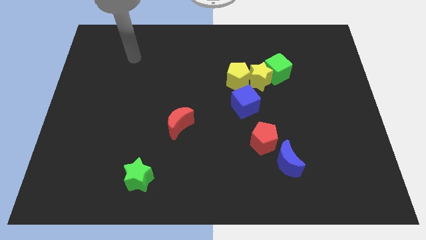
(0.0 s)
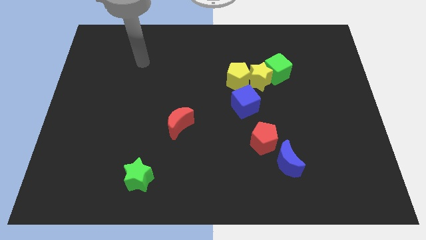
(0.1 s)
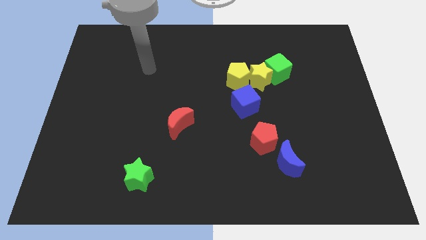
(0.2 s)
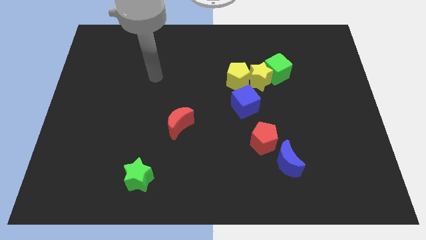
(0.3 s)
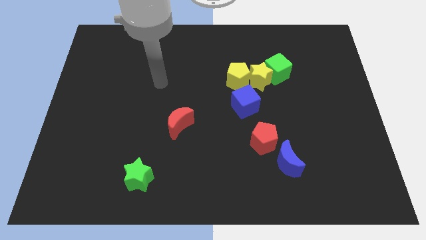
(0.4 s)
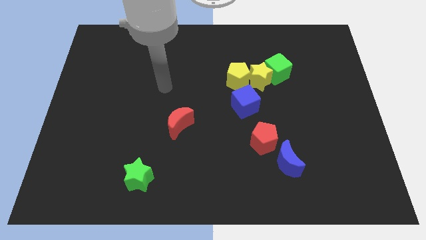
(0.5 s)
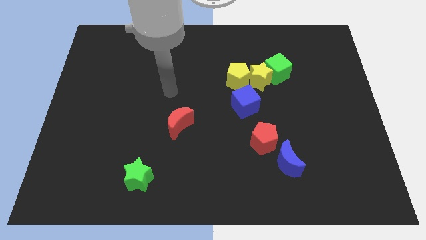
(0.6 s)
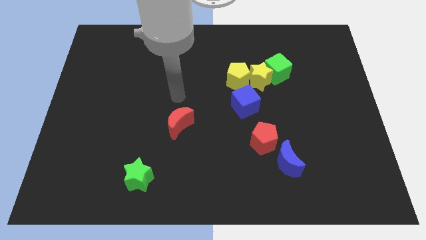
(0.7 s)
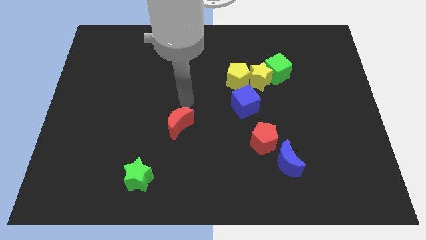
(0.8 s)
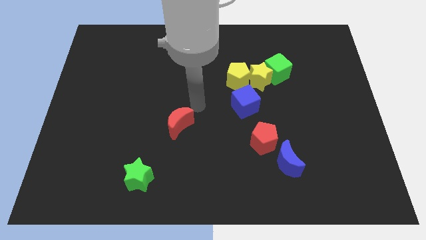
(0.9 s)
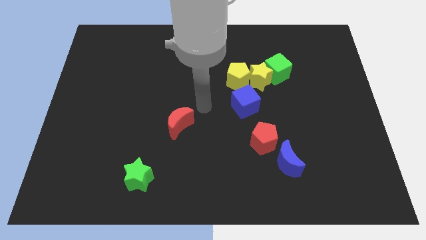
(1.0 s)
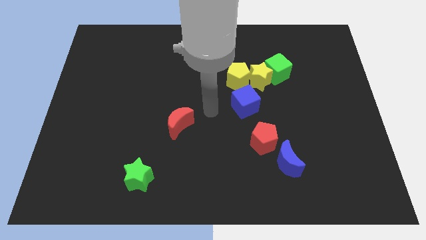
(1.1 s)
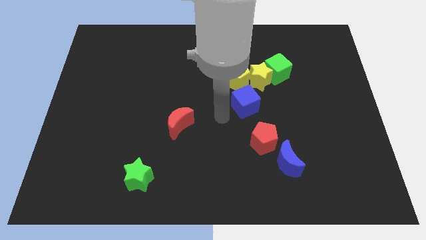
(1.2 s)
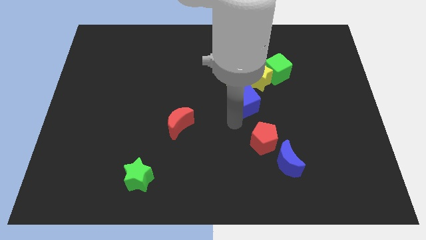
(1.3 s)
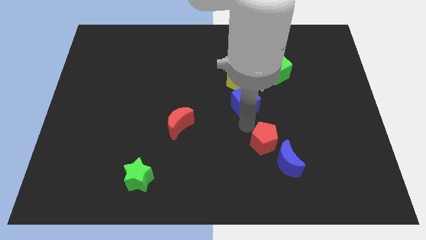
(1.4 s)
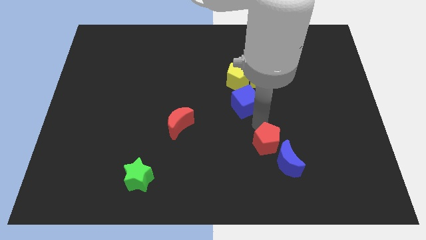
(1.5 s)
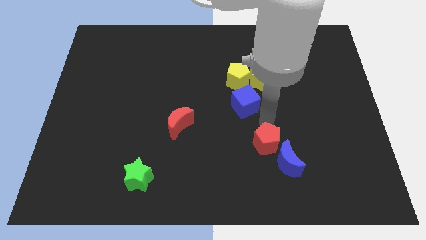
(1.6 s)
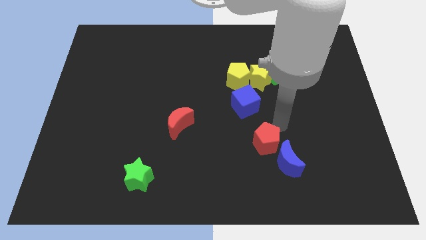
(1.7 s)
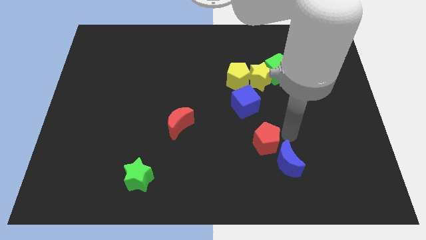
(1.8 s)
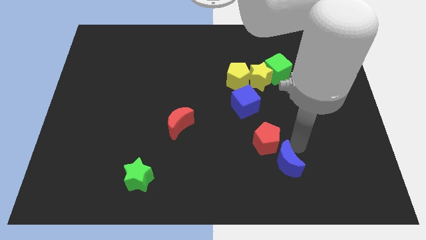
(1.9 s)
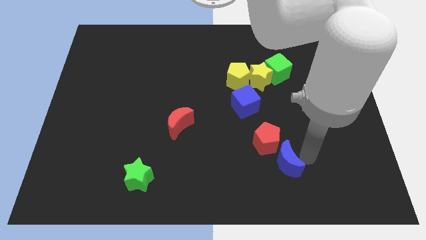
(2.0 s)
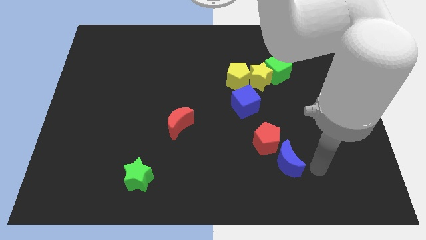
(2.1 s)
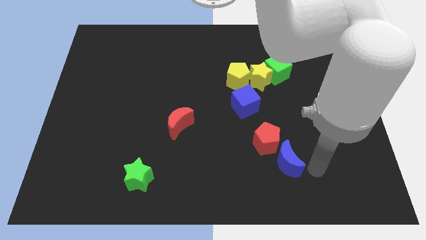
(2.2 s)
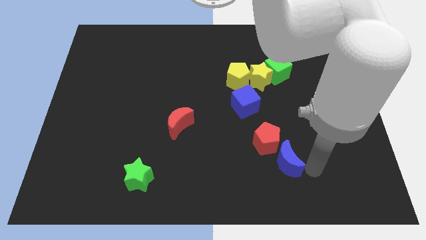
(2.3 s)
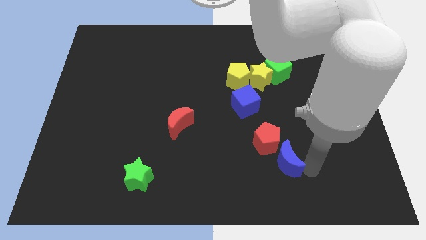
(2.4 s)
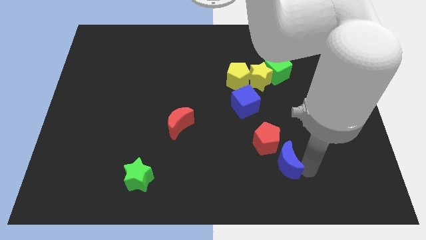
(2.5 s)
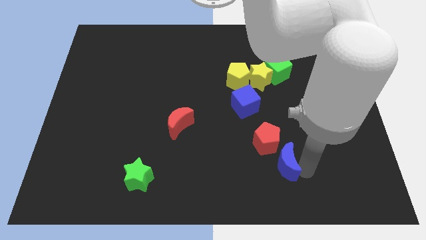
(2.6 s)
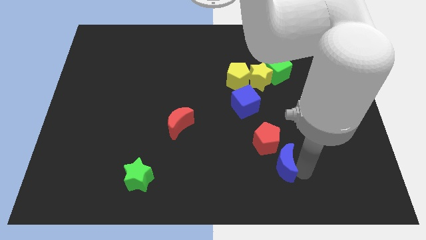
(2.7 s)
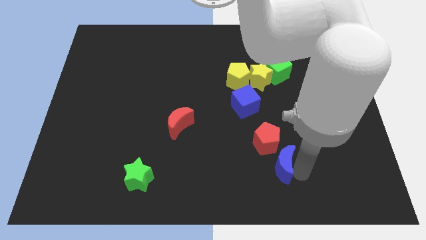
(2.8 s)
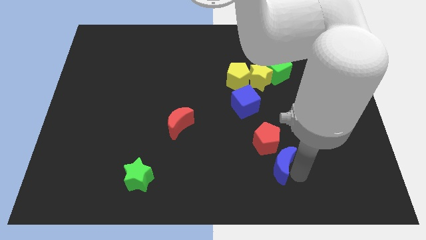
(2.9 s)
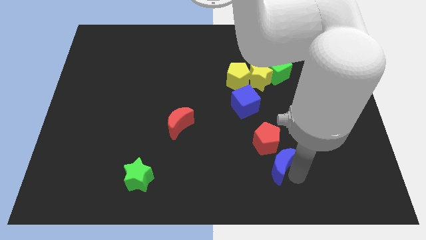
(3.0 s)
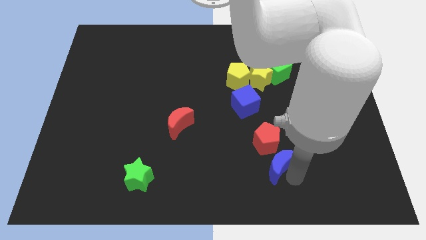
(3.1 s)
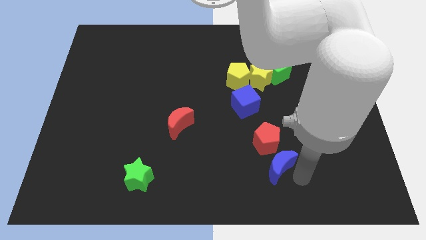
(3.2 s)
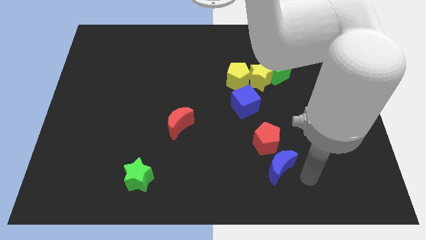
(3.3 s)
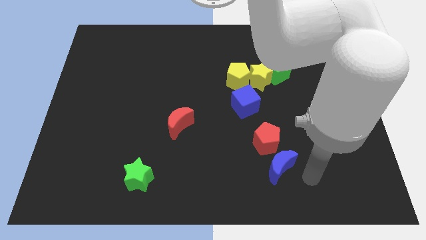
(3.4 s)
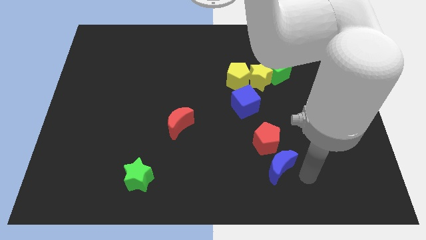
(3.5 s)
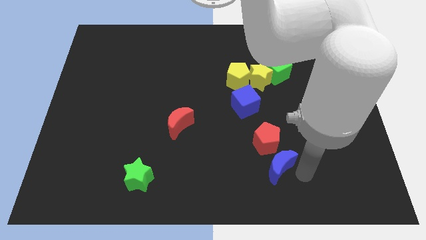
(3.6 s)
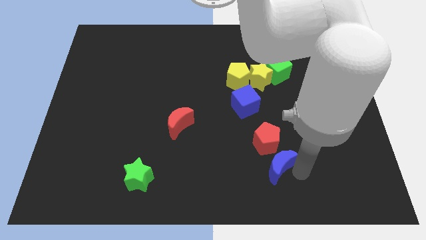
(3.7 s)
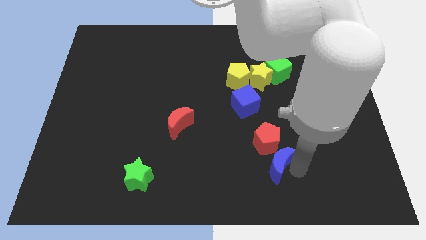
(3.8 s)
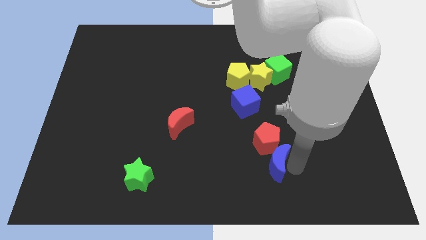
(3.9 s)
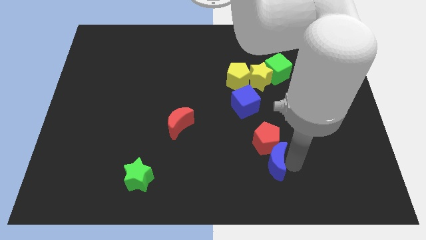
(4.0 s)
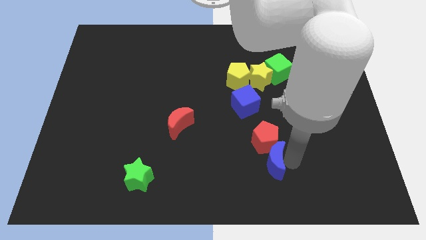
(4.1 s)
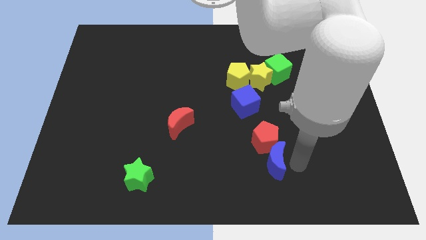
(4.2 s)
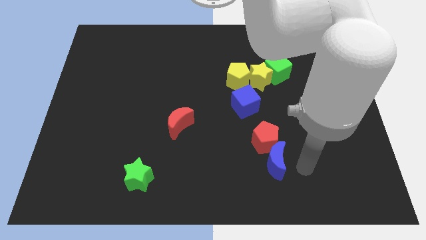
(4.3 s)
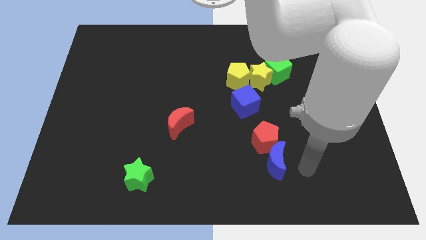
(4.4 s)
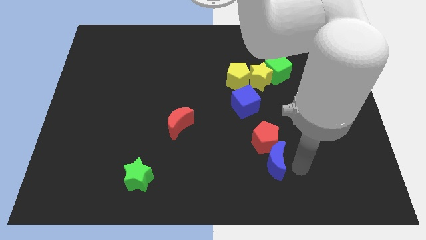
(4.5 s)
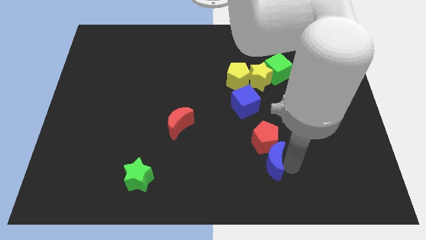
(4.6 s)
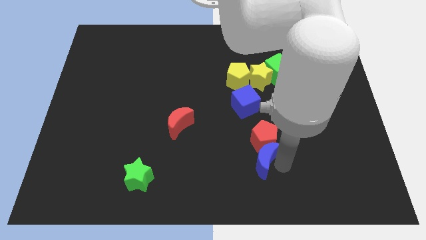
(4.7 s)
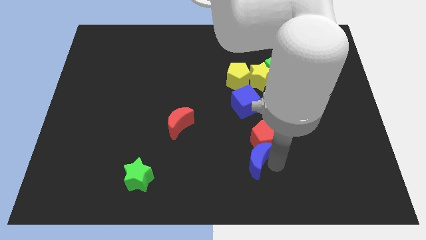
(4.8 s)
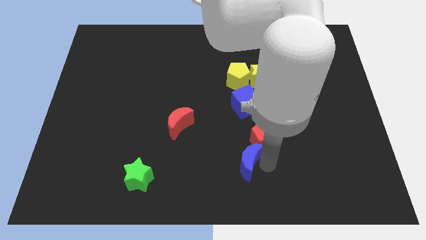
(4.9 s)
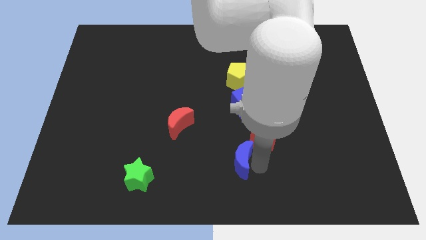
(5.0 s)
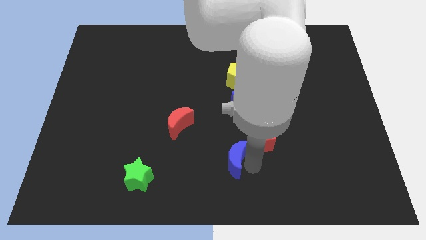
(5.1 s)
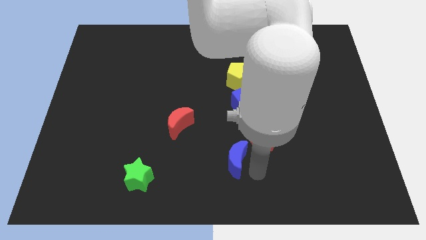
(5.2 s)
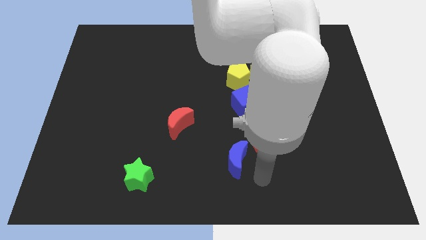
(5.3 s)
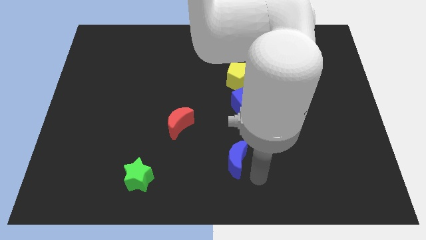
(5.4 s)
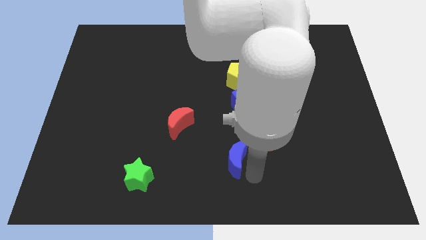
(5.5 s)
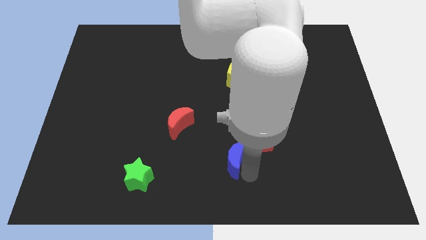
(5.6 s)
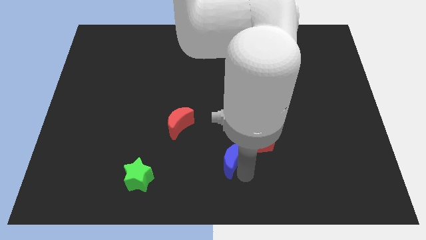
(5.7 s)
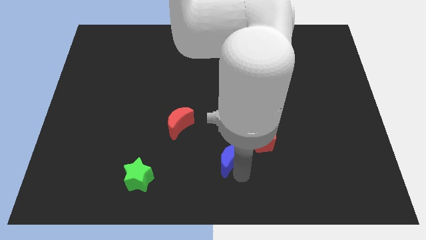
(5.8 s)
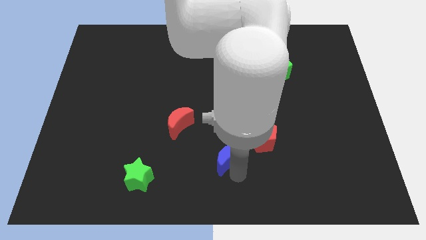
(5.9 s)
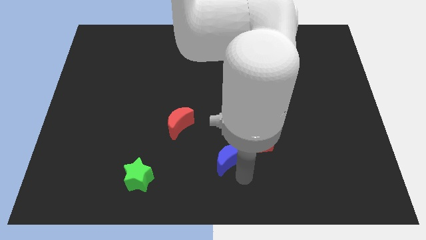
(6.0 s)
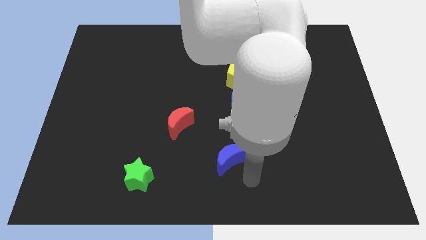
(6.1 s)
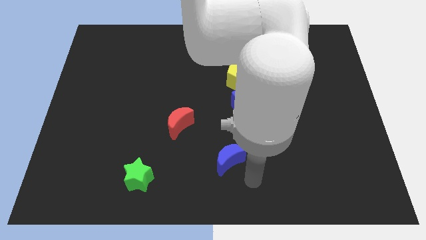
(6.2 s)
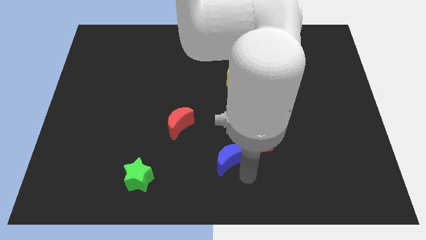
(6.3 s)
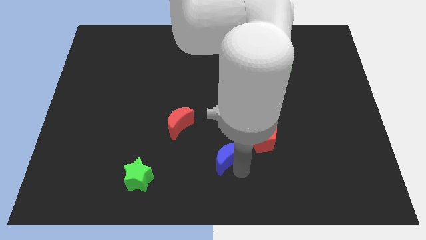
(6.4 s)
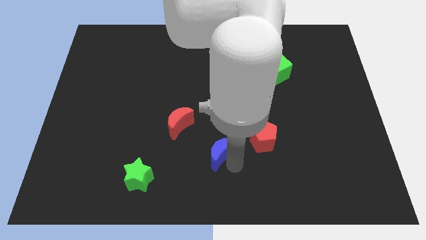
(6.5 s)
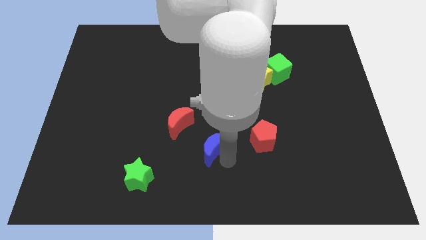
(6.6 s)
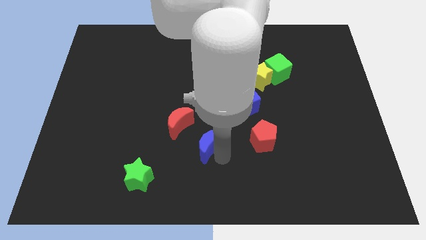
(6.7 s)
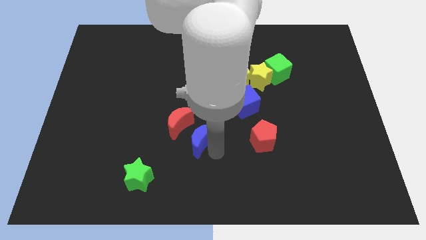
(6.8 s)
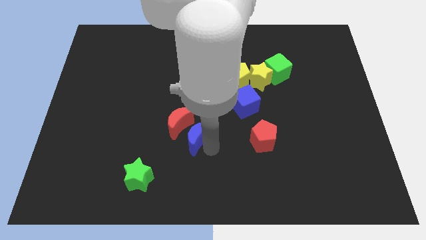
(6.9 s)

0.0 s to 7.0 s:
slide the blue moon next to the red moon
